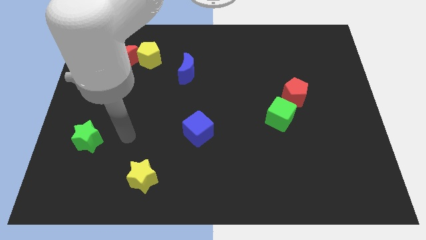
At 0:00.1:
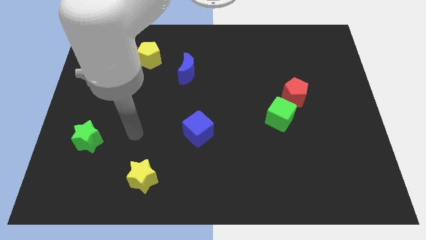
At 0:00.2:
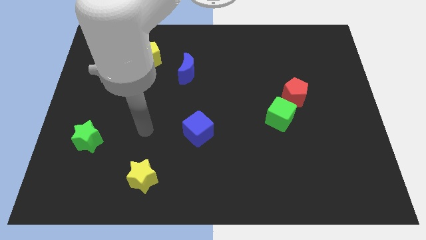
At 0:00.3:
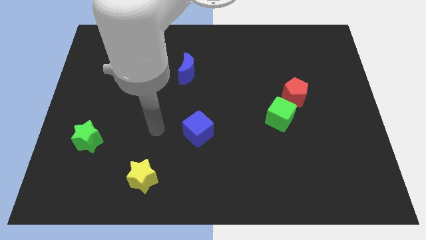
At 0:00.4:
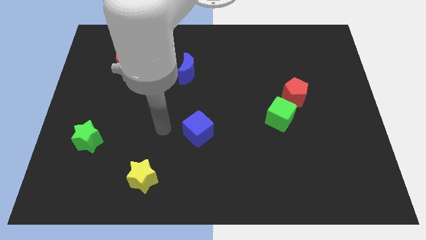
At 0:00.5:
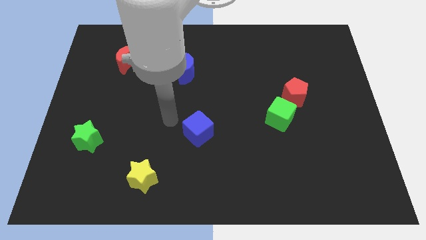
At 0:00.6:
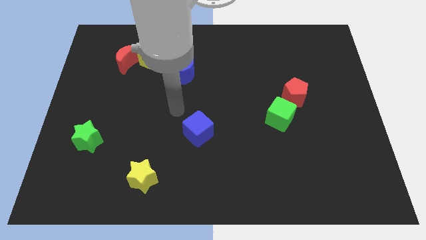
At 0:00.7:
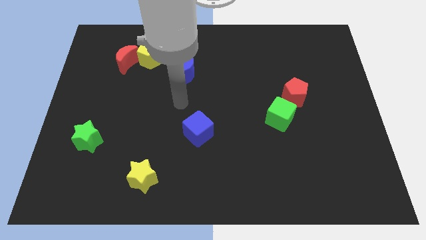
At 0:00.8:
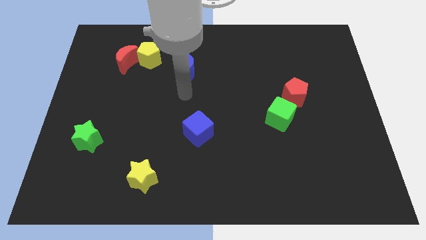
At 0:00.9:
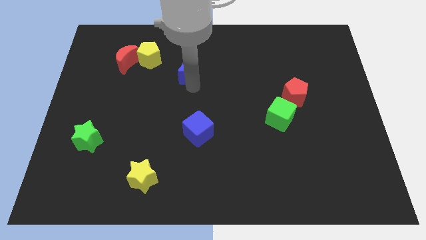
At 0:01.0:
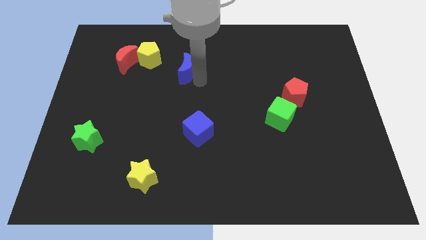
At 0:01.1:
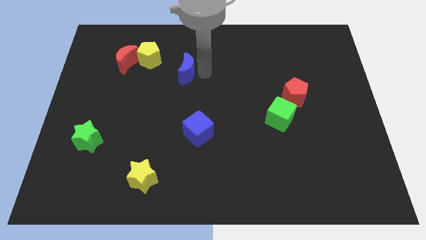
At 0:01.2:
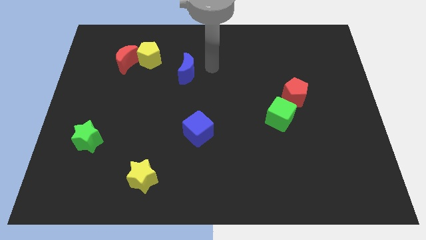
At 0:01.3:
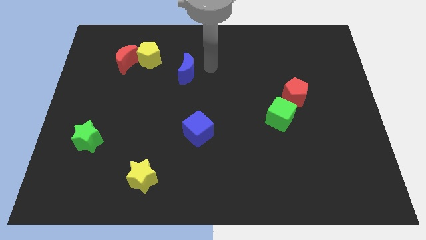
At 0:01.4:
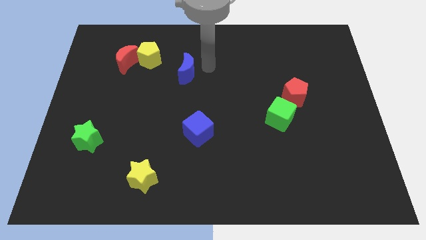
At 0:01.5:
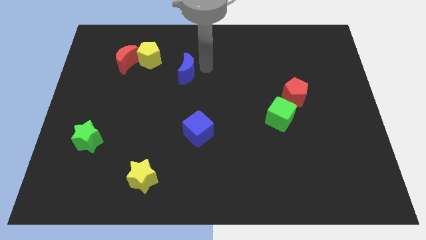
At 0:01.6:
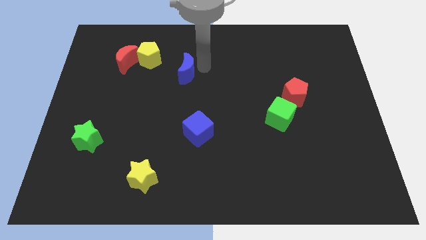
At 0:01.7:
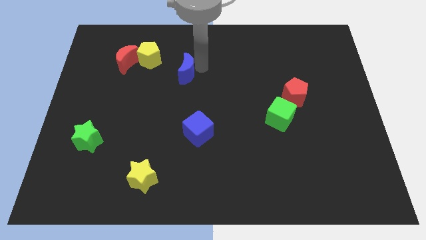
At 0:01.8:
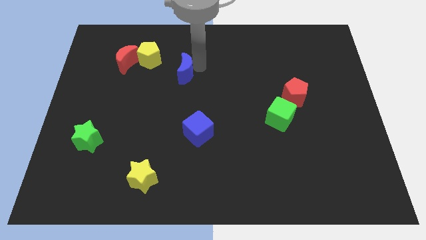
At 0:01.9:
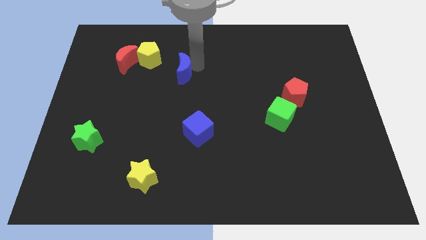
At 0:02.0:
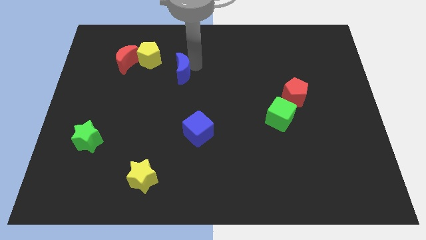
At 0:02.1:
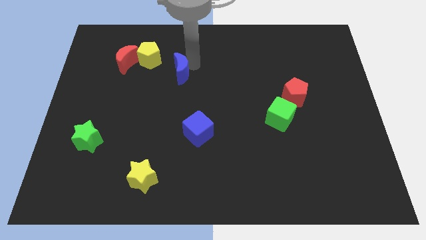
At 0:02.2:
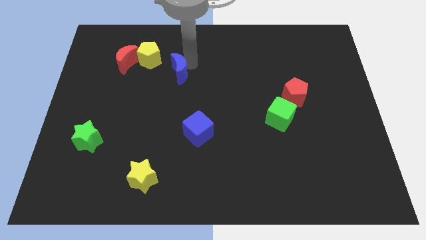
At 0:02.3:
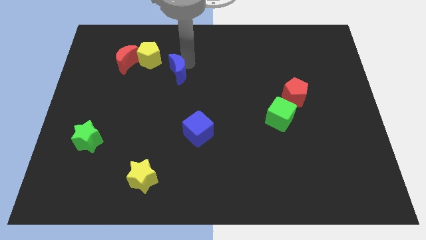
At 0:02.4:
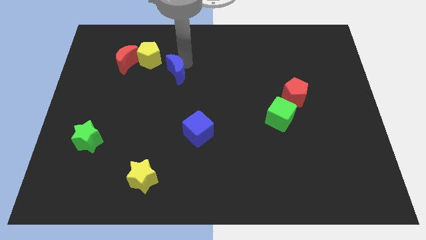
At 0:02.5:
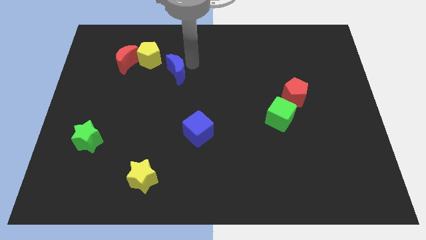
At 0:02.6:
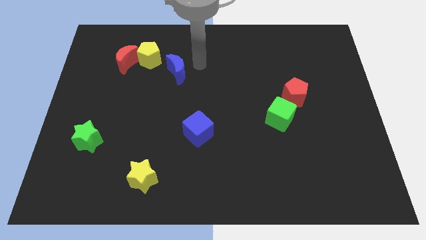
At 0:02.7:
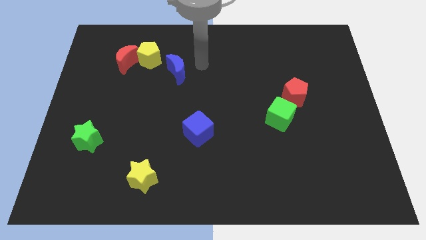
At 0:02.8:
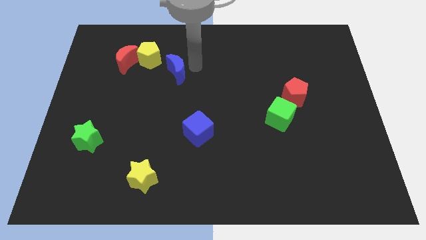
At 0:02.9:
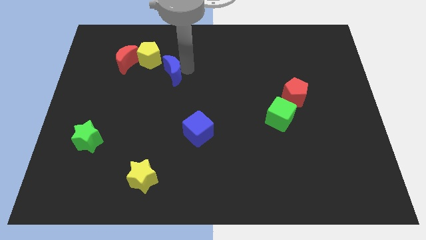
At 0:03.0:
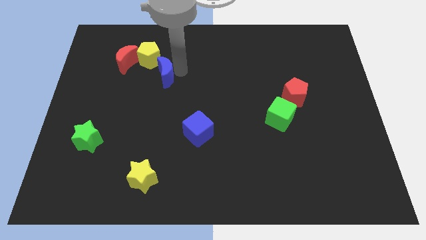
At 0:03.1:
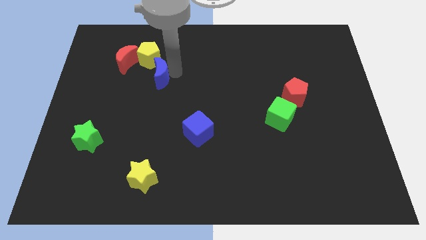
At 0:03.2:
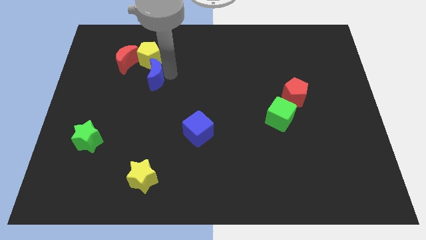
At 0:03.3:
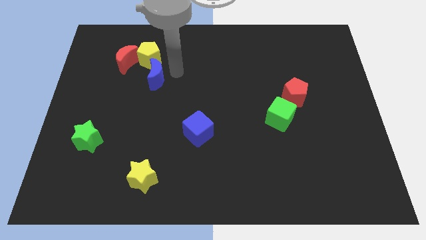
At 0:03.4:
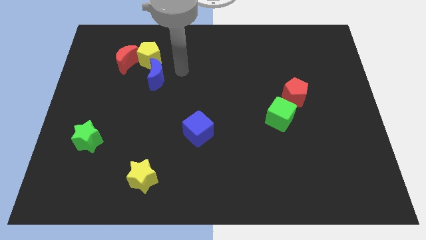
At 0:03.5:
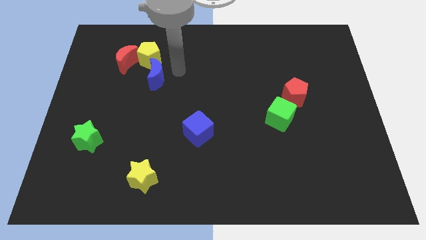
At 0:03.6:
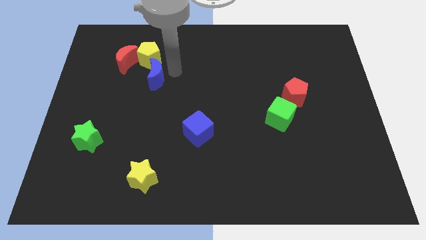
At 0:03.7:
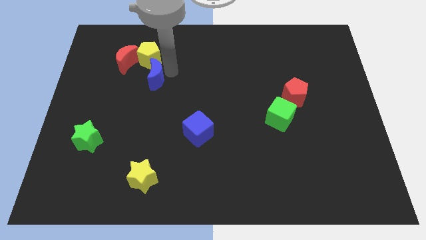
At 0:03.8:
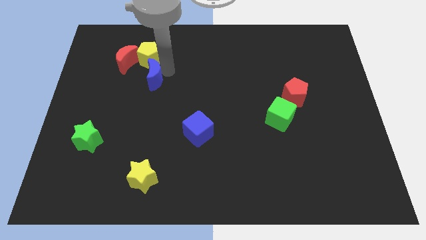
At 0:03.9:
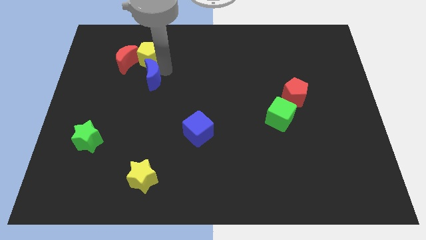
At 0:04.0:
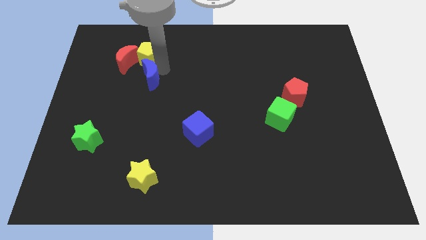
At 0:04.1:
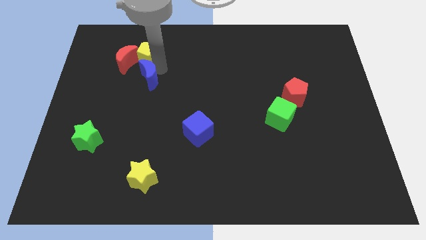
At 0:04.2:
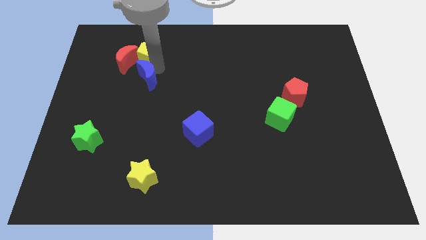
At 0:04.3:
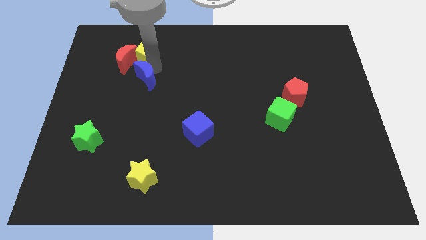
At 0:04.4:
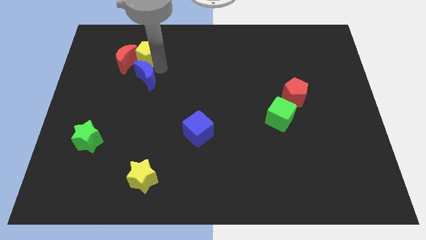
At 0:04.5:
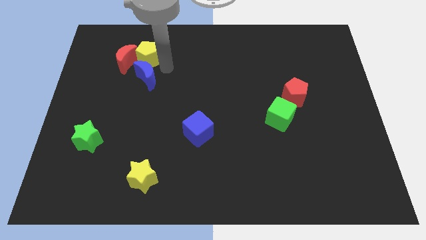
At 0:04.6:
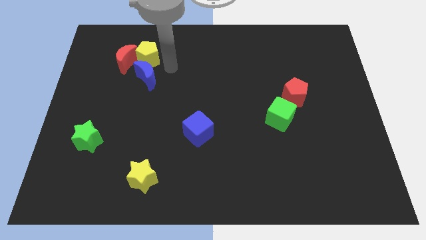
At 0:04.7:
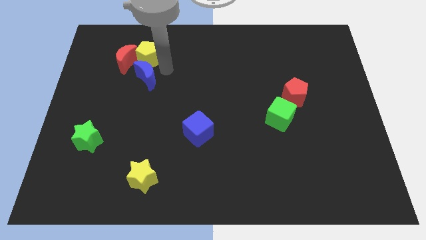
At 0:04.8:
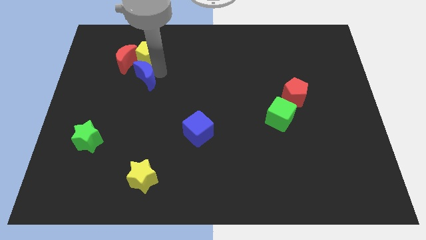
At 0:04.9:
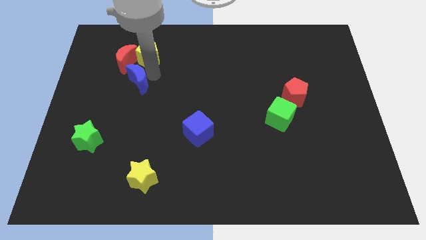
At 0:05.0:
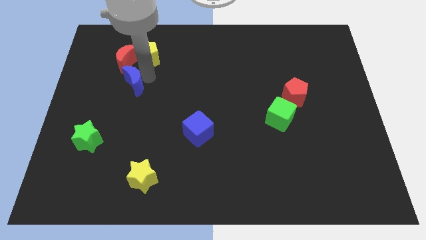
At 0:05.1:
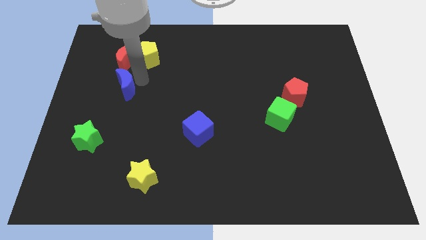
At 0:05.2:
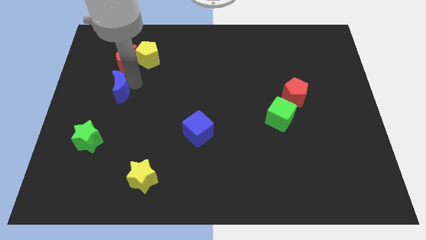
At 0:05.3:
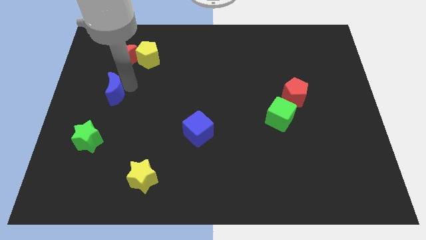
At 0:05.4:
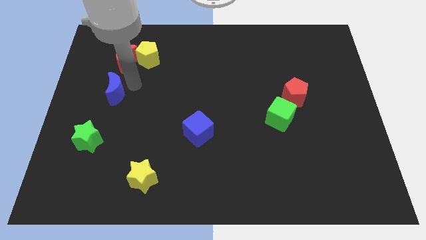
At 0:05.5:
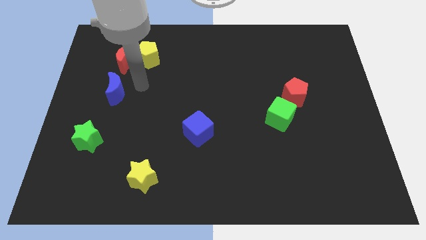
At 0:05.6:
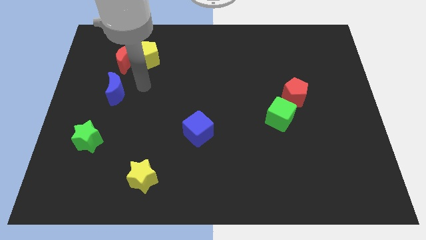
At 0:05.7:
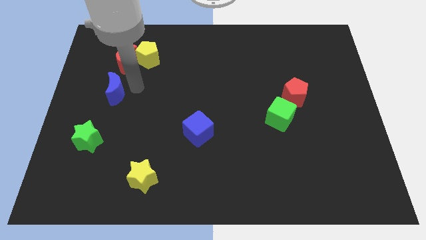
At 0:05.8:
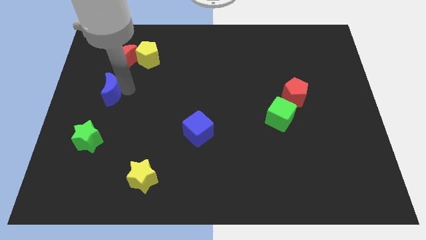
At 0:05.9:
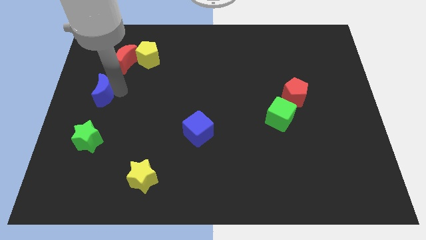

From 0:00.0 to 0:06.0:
push the blue moon to the left side of the board

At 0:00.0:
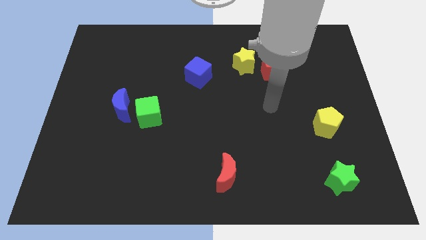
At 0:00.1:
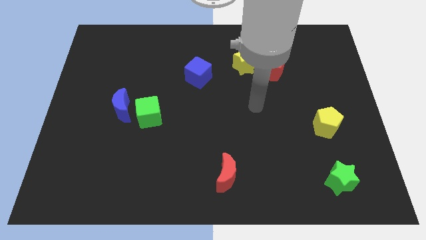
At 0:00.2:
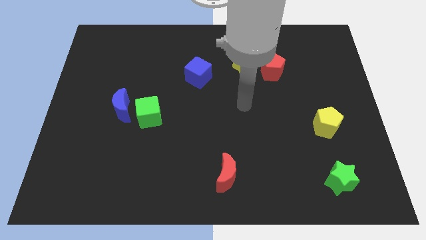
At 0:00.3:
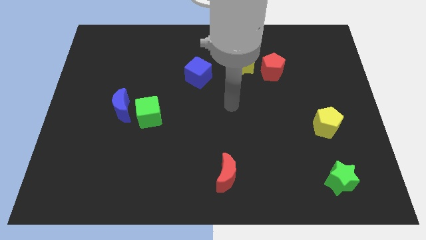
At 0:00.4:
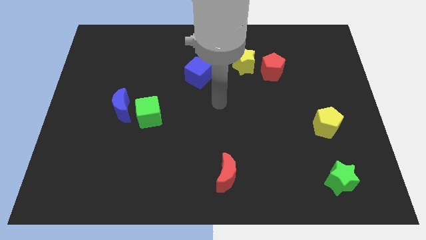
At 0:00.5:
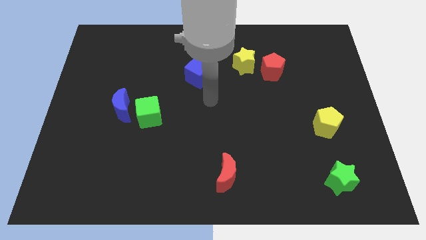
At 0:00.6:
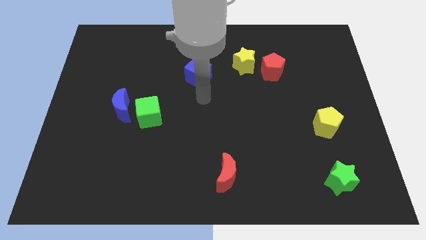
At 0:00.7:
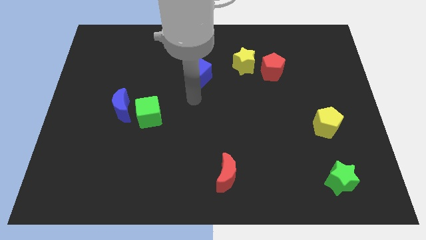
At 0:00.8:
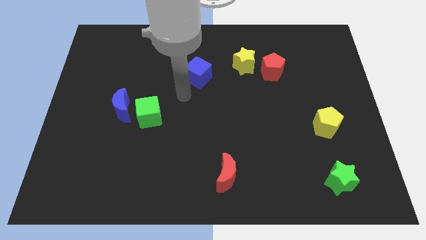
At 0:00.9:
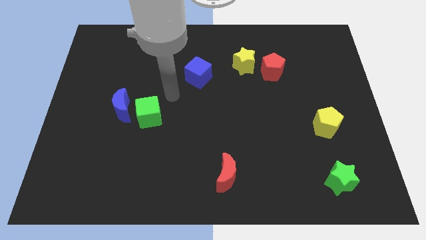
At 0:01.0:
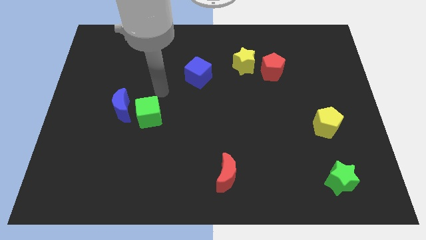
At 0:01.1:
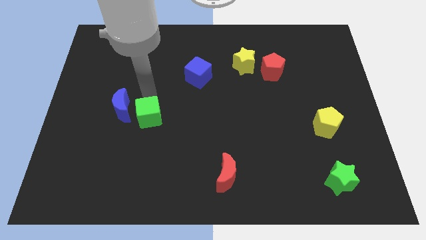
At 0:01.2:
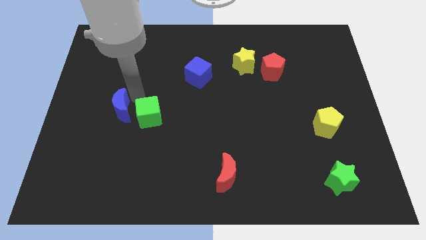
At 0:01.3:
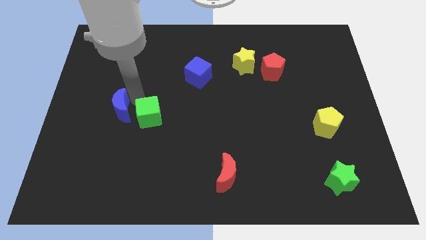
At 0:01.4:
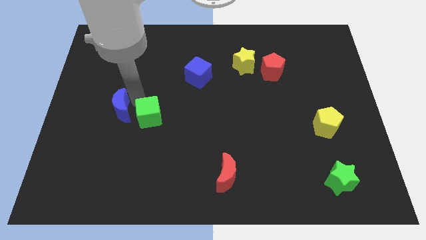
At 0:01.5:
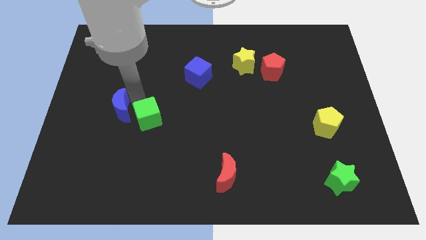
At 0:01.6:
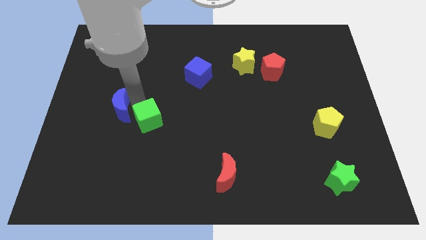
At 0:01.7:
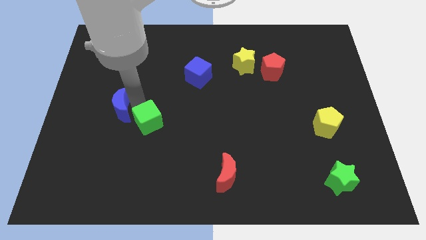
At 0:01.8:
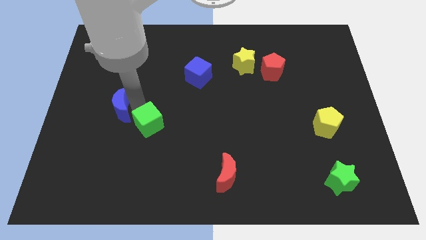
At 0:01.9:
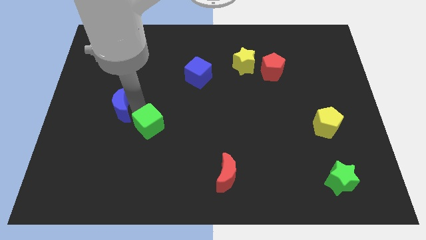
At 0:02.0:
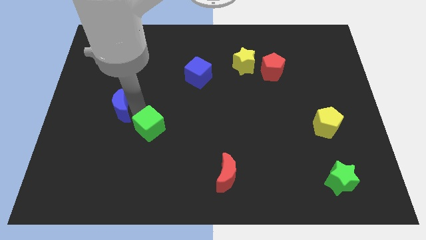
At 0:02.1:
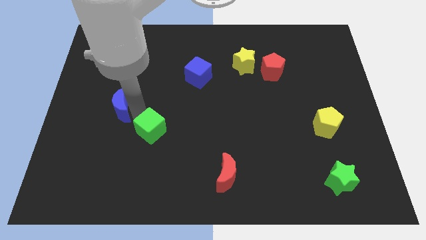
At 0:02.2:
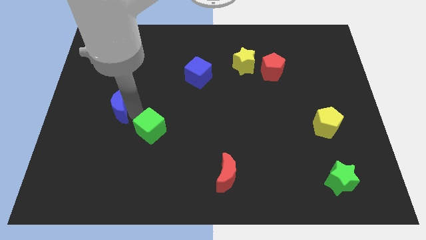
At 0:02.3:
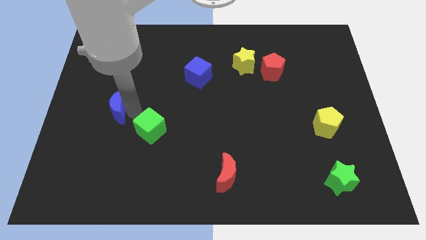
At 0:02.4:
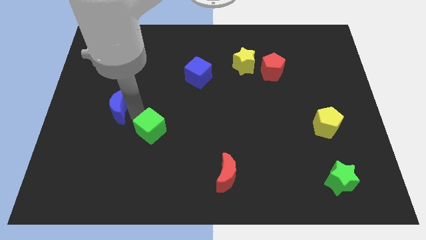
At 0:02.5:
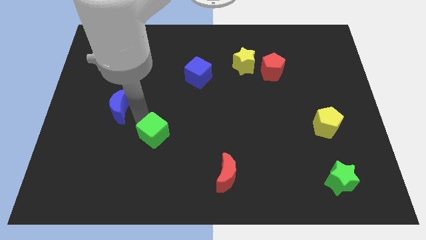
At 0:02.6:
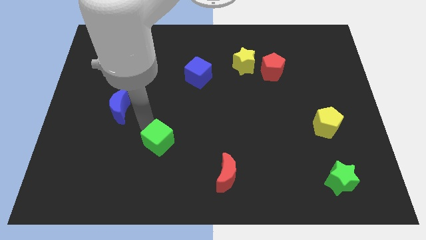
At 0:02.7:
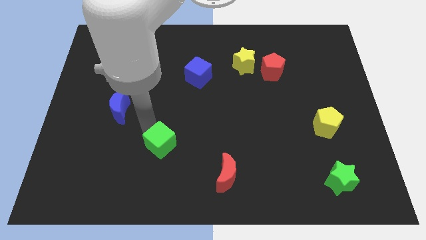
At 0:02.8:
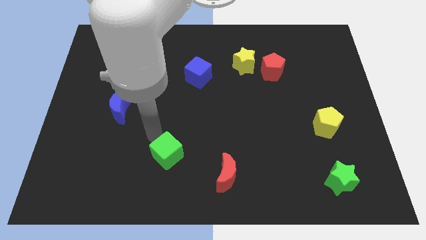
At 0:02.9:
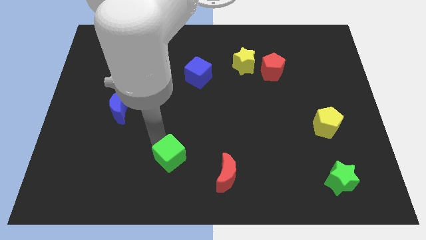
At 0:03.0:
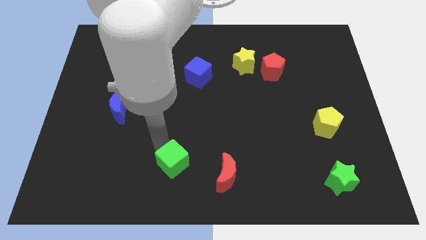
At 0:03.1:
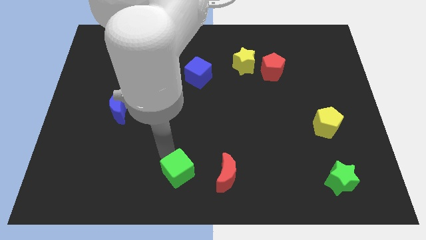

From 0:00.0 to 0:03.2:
put the green cube to the bottom side
